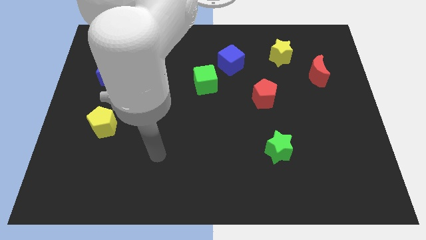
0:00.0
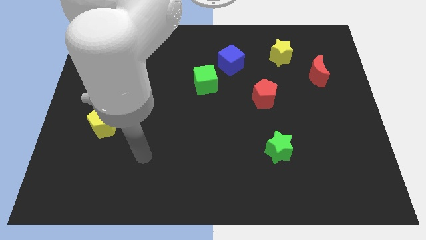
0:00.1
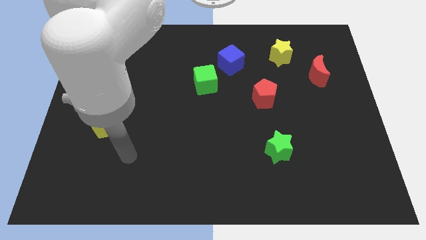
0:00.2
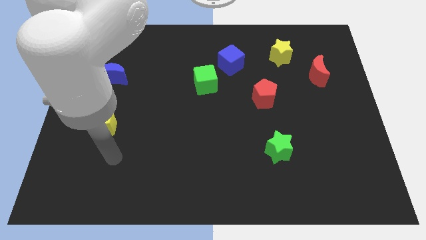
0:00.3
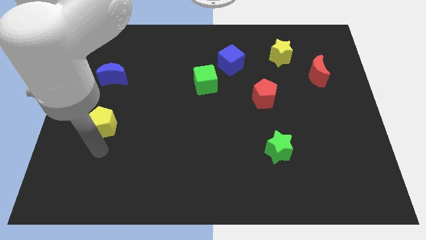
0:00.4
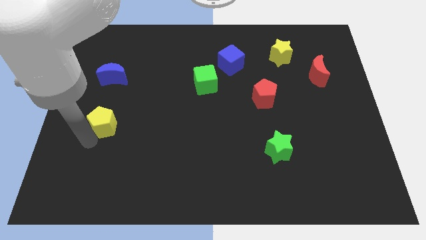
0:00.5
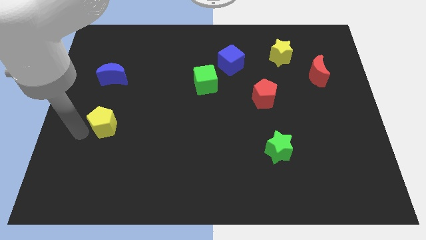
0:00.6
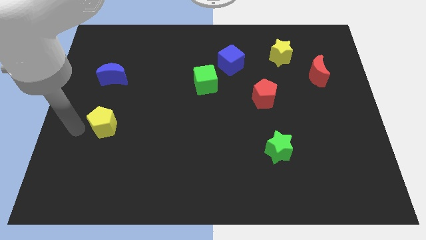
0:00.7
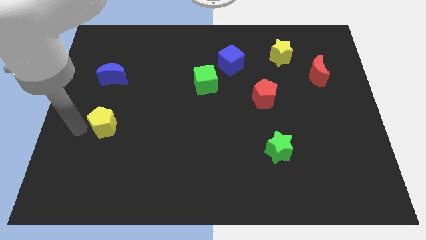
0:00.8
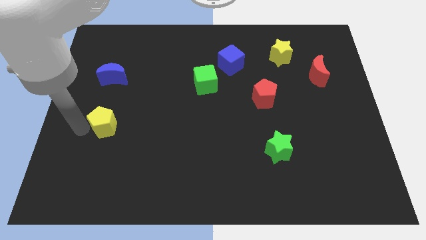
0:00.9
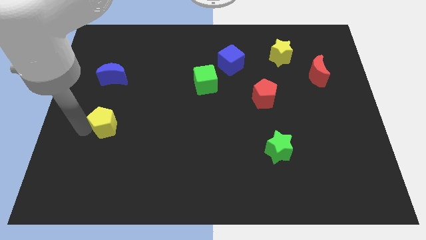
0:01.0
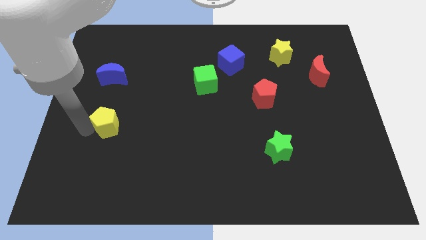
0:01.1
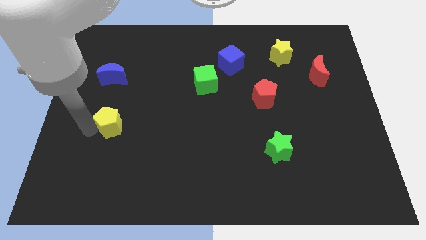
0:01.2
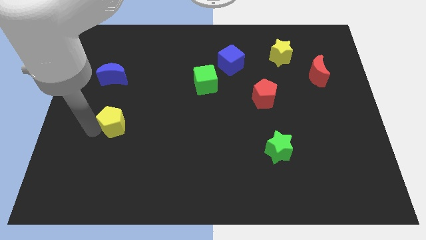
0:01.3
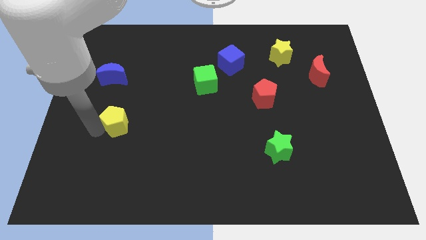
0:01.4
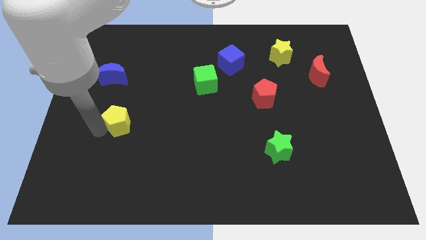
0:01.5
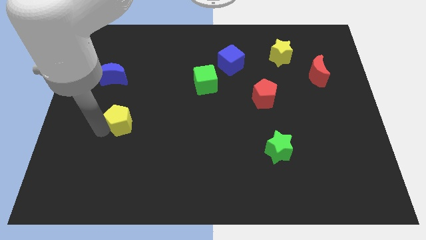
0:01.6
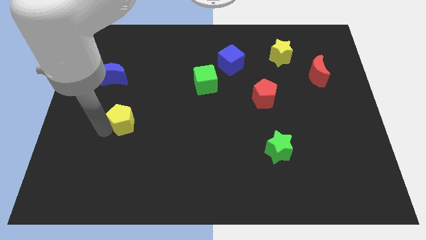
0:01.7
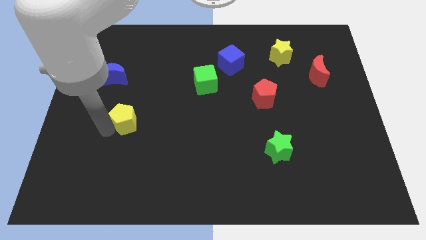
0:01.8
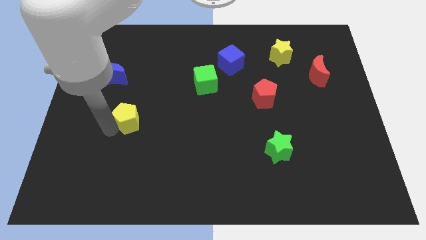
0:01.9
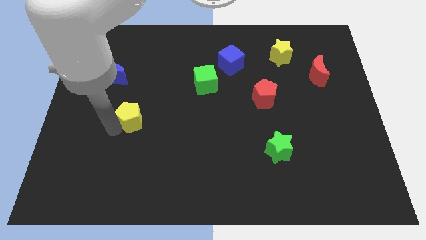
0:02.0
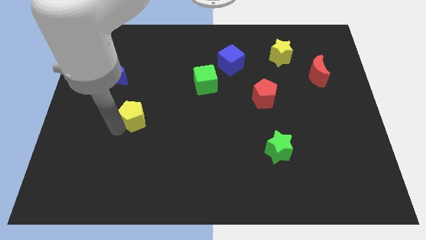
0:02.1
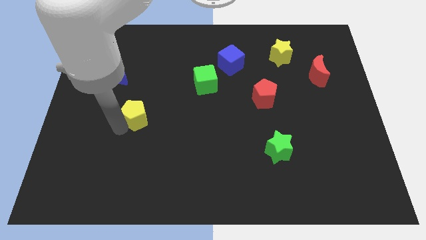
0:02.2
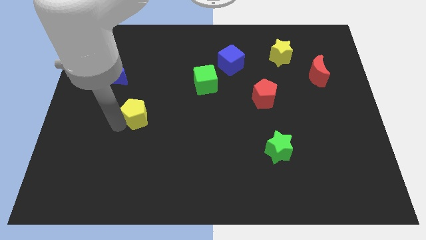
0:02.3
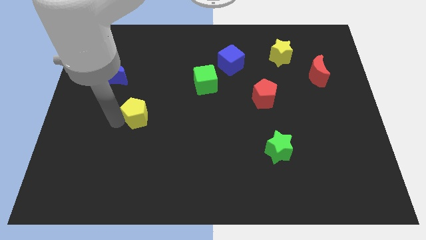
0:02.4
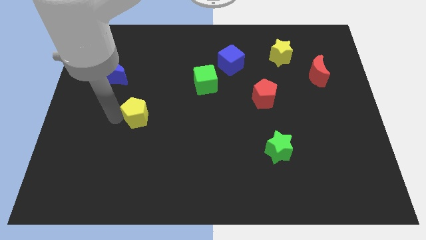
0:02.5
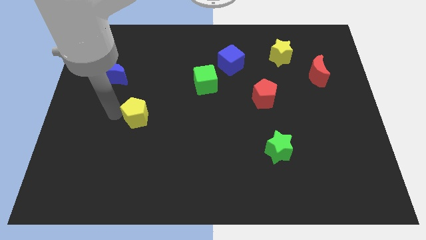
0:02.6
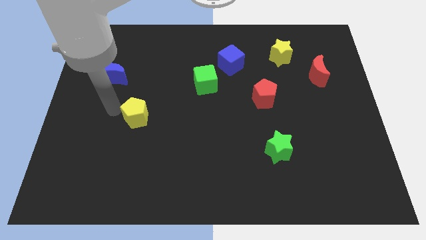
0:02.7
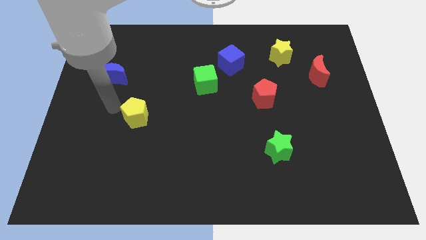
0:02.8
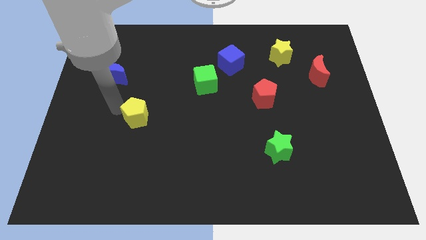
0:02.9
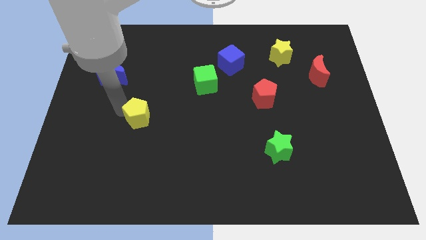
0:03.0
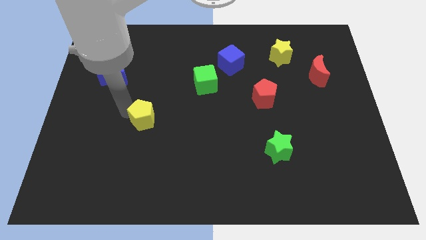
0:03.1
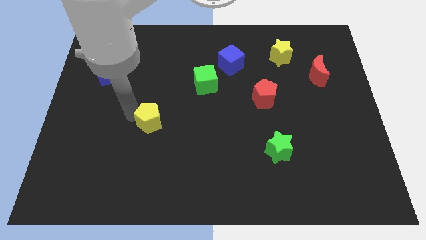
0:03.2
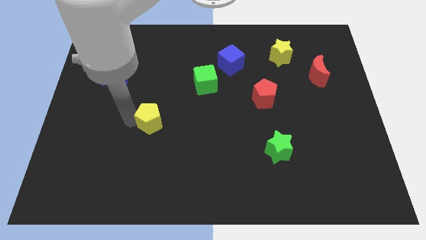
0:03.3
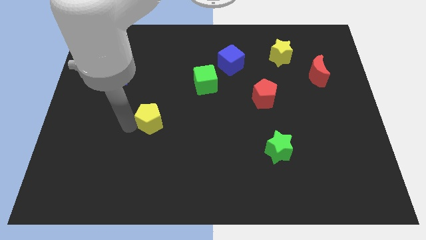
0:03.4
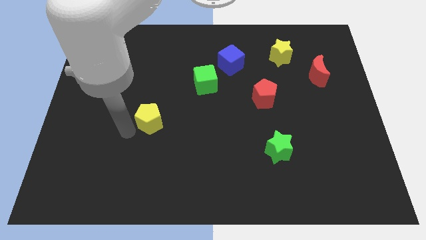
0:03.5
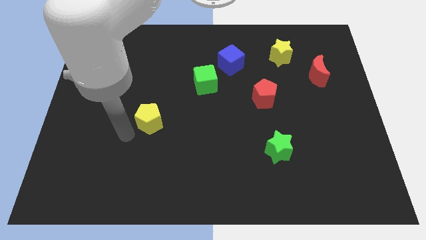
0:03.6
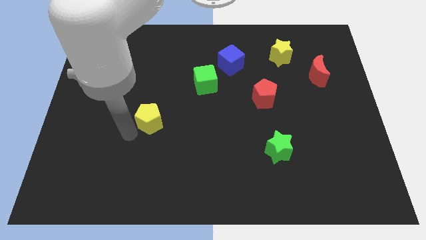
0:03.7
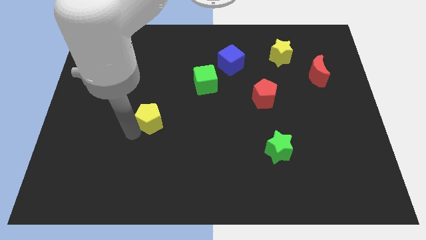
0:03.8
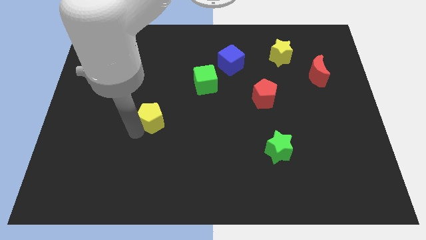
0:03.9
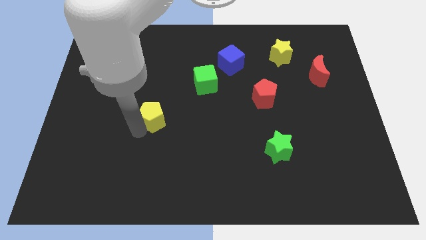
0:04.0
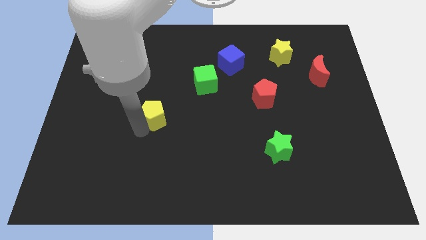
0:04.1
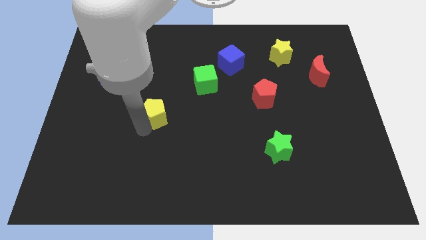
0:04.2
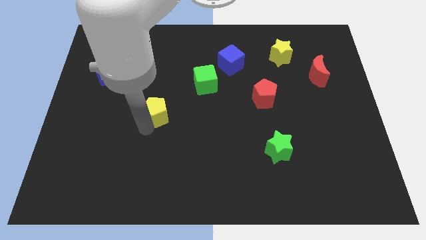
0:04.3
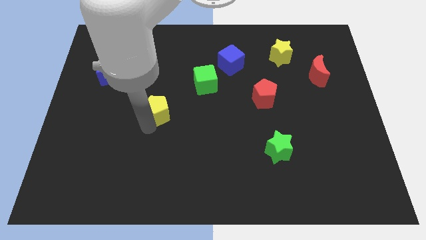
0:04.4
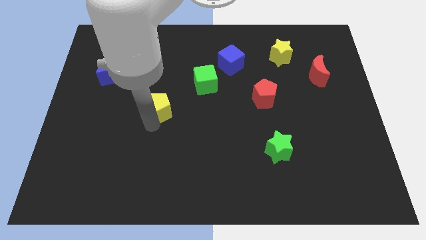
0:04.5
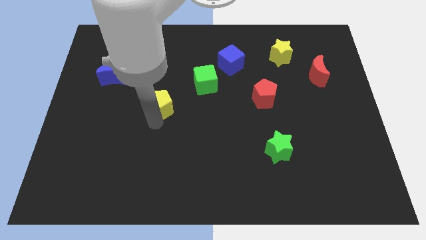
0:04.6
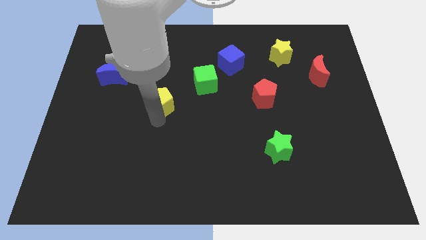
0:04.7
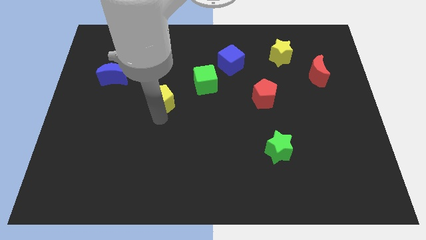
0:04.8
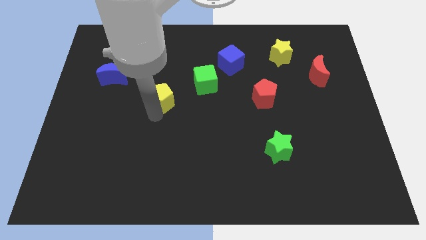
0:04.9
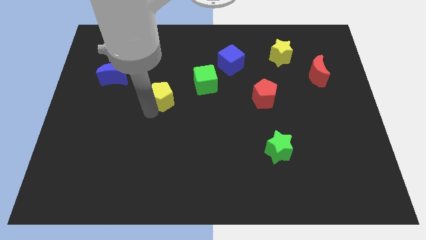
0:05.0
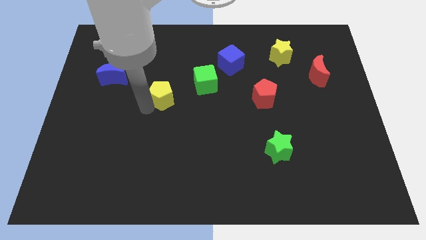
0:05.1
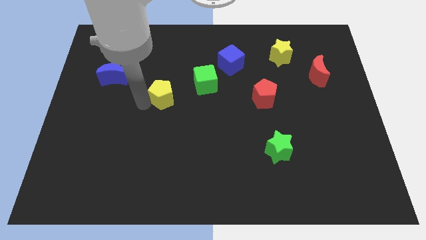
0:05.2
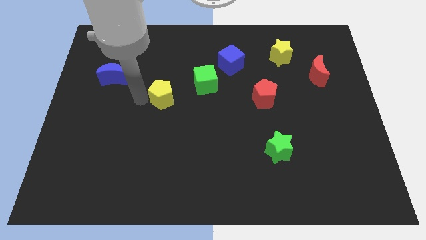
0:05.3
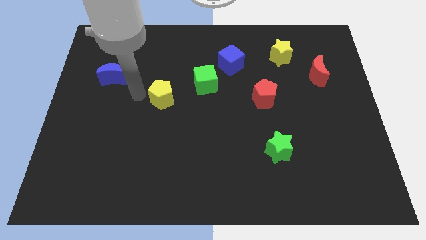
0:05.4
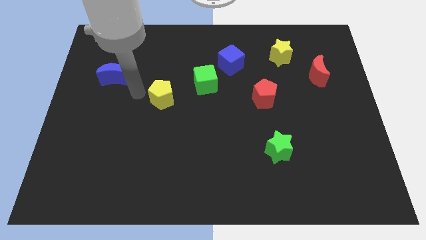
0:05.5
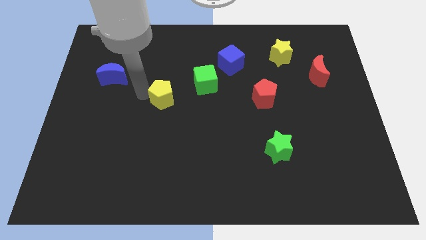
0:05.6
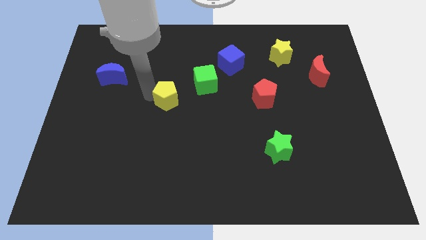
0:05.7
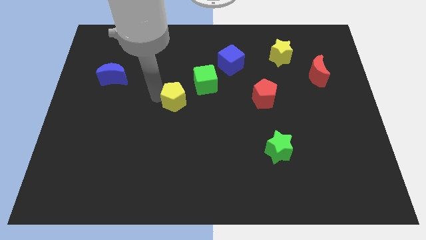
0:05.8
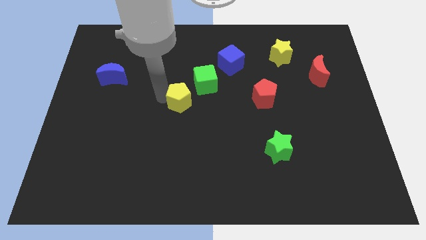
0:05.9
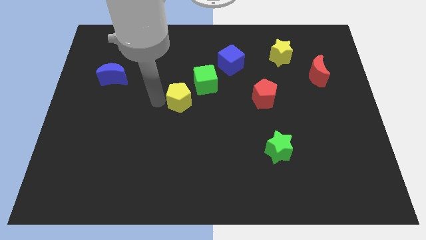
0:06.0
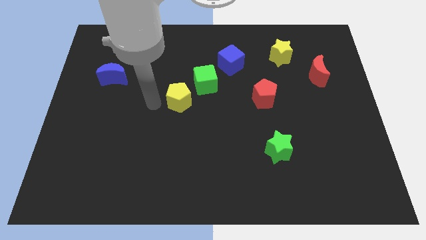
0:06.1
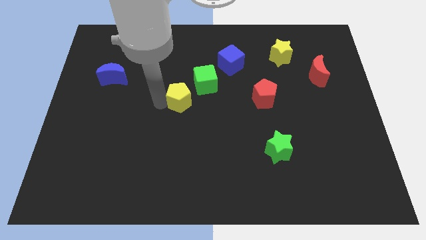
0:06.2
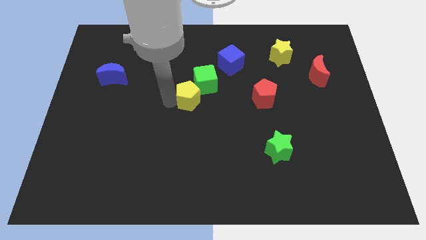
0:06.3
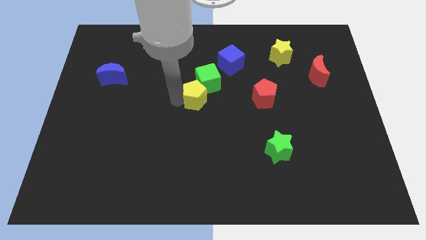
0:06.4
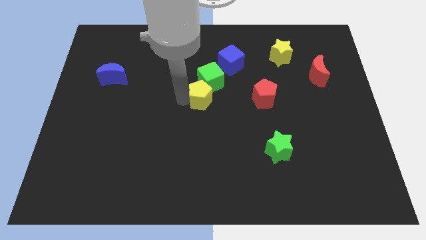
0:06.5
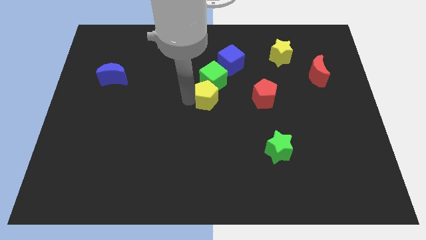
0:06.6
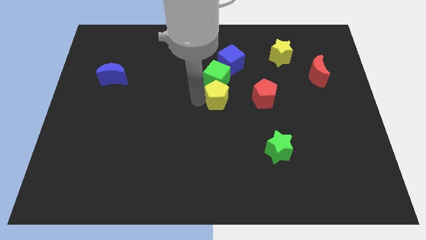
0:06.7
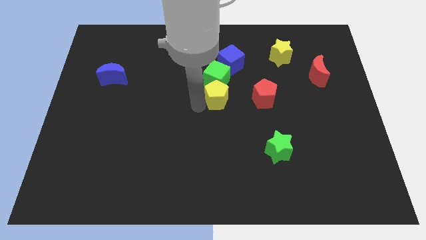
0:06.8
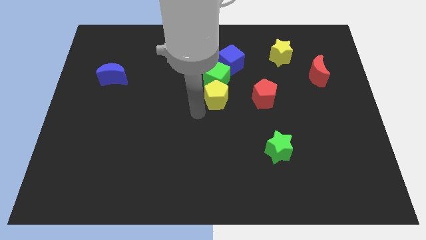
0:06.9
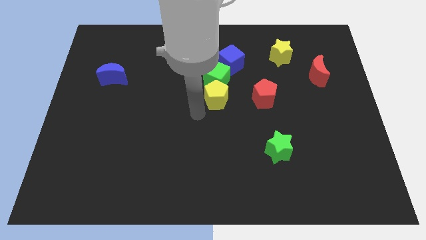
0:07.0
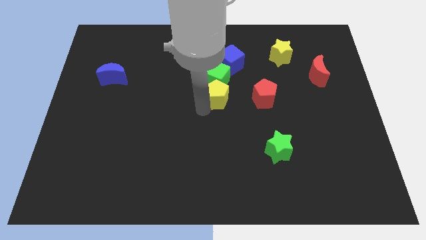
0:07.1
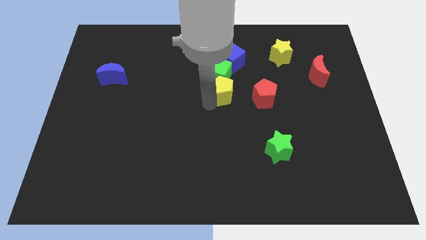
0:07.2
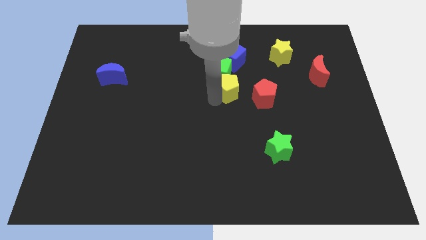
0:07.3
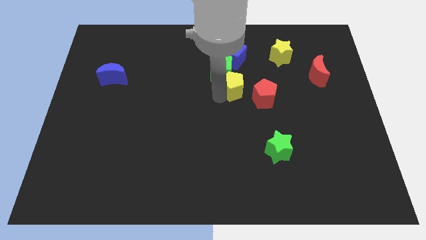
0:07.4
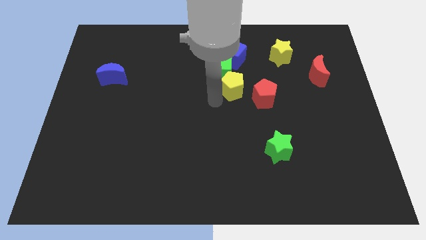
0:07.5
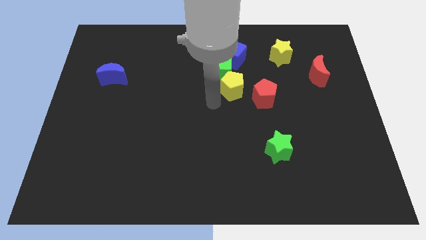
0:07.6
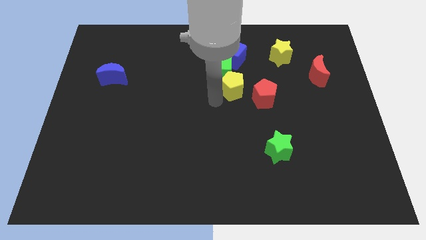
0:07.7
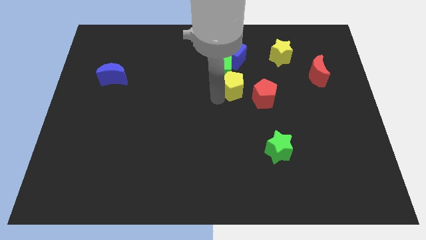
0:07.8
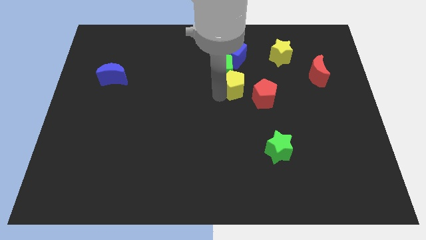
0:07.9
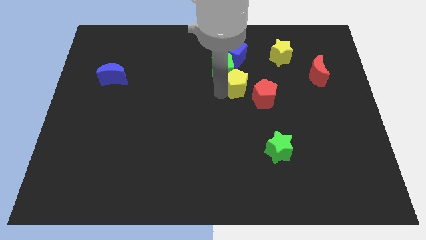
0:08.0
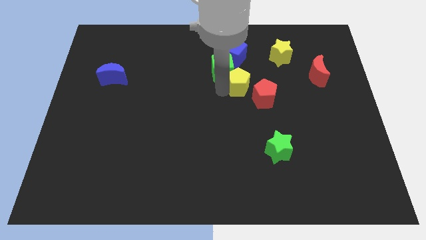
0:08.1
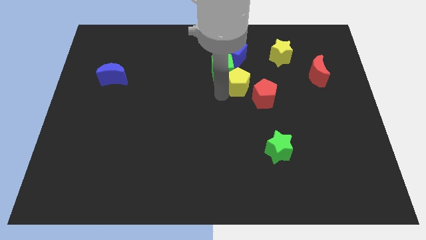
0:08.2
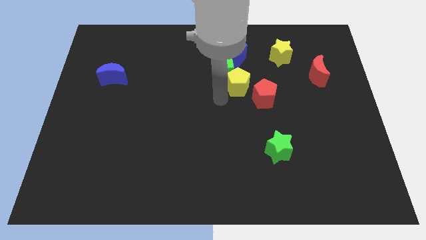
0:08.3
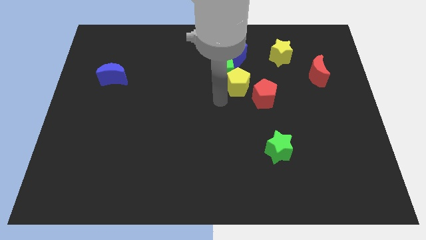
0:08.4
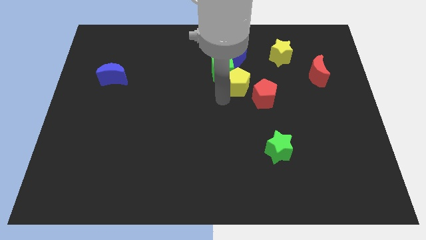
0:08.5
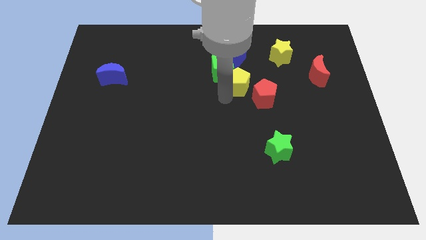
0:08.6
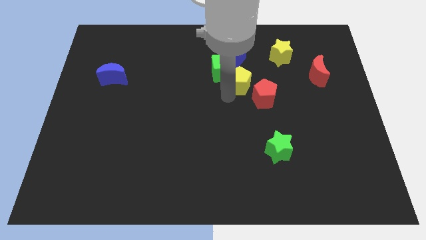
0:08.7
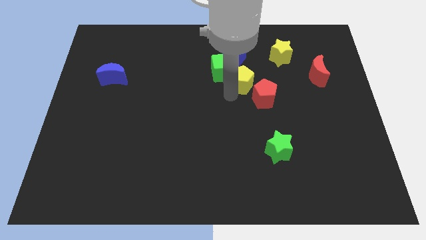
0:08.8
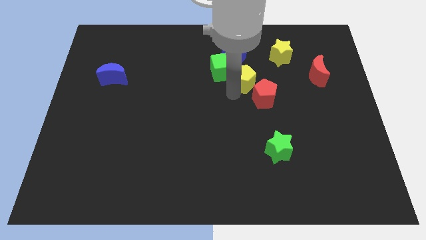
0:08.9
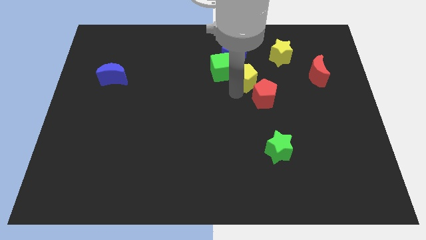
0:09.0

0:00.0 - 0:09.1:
put the yellow pentagon to the bottom right side of the blue cube
